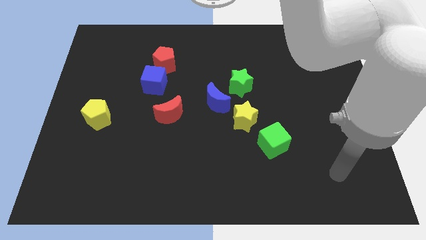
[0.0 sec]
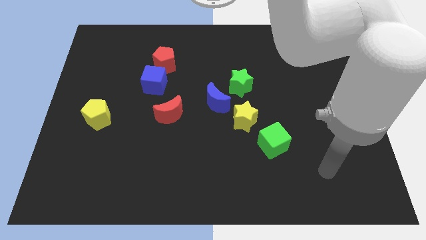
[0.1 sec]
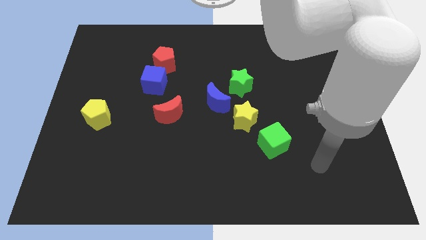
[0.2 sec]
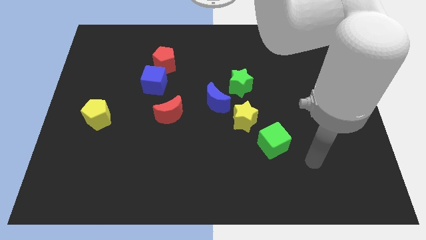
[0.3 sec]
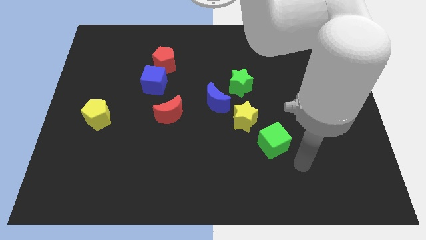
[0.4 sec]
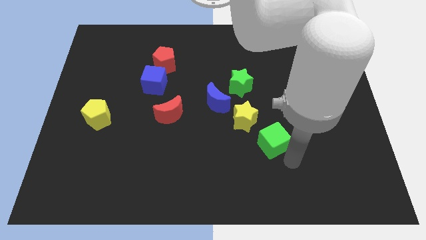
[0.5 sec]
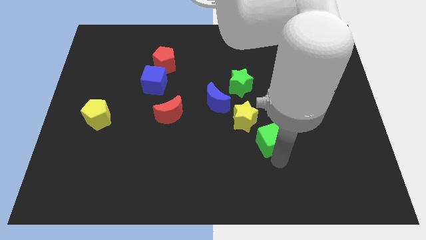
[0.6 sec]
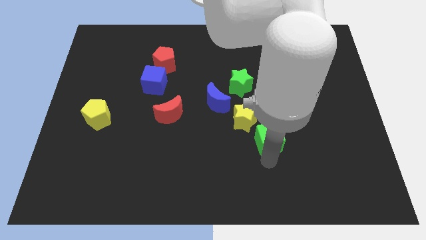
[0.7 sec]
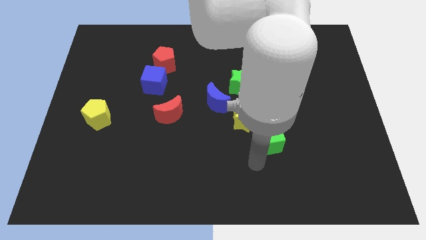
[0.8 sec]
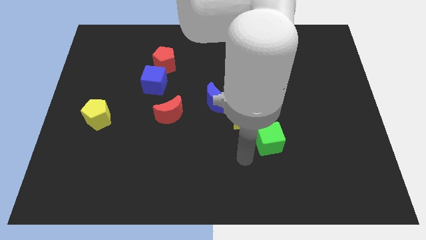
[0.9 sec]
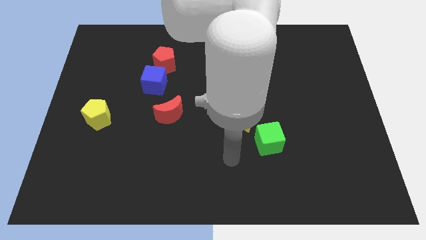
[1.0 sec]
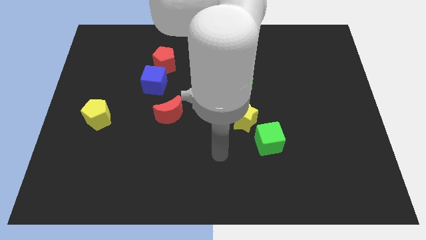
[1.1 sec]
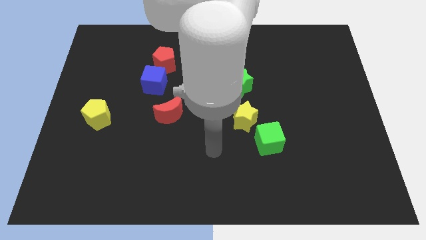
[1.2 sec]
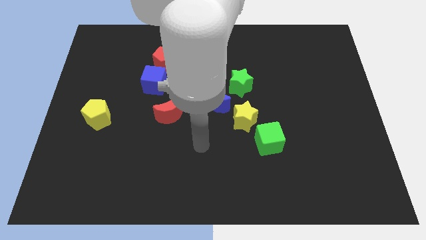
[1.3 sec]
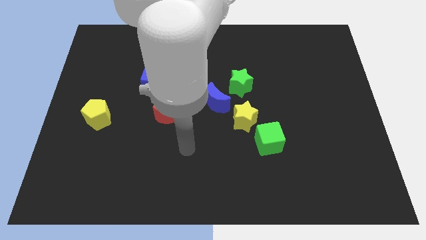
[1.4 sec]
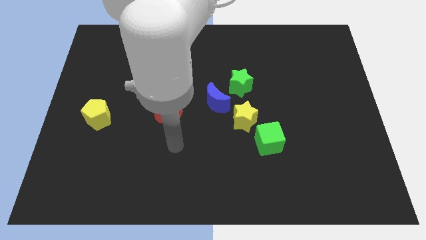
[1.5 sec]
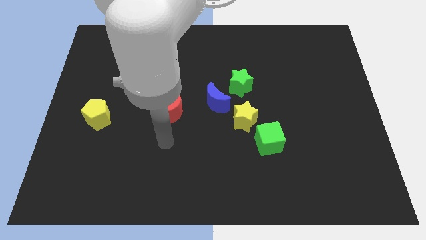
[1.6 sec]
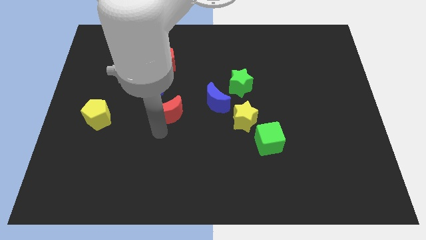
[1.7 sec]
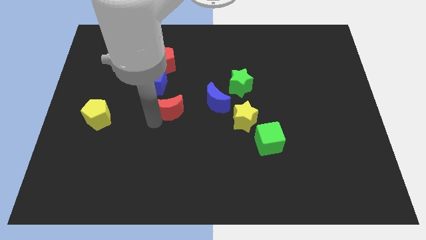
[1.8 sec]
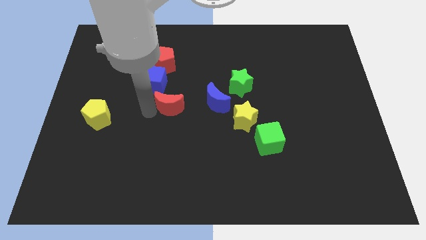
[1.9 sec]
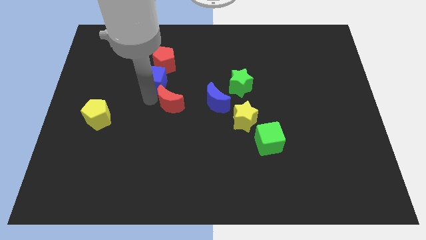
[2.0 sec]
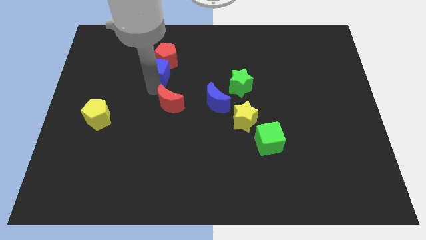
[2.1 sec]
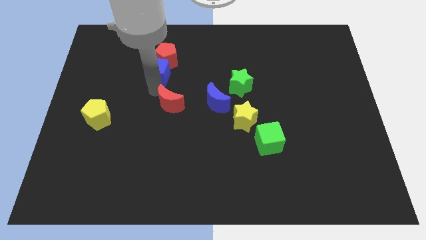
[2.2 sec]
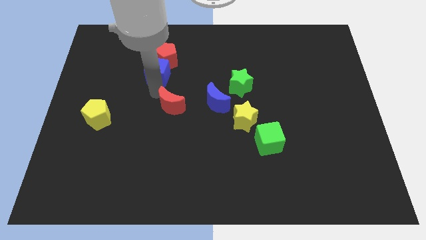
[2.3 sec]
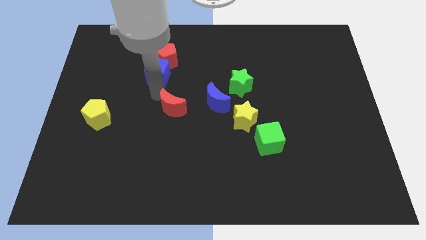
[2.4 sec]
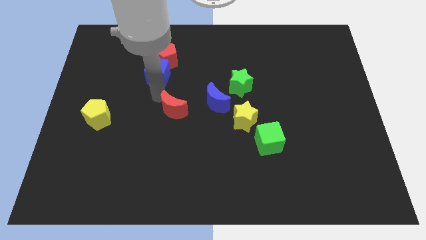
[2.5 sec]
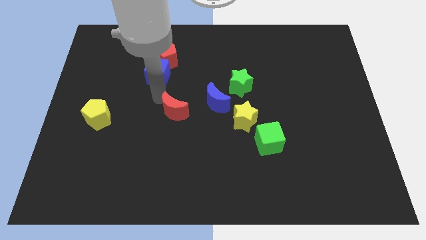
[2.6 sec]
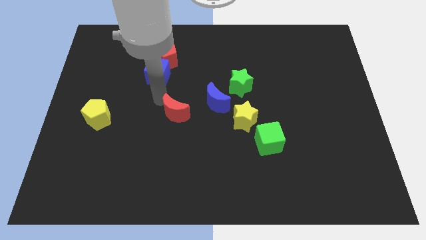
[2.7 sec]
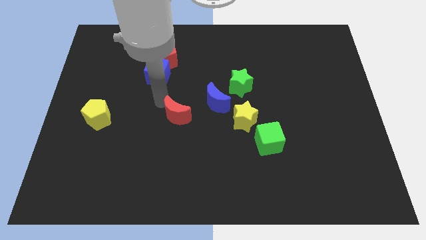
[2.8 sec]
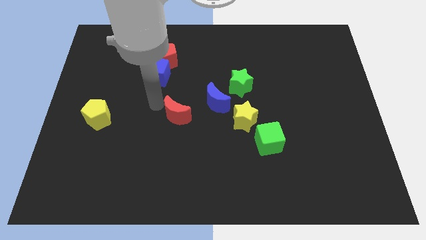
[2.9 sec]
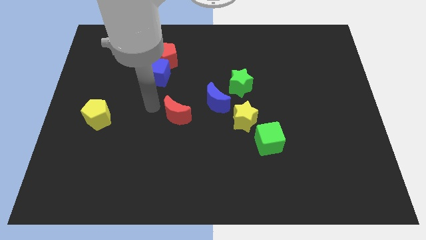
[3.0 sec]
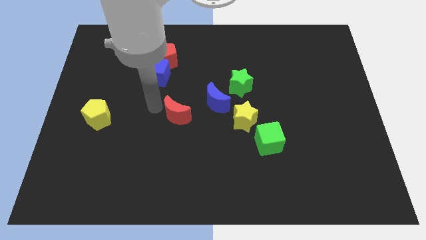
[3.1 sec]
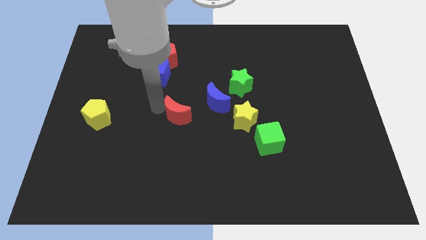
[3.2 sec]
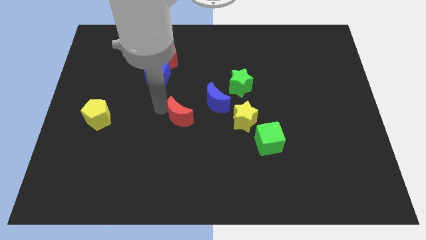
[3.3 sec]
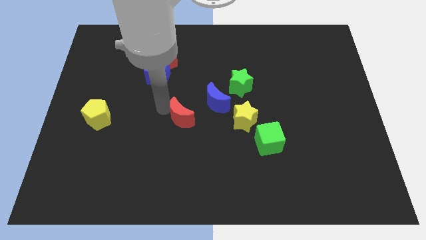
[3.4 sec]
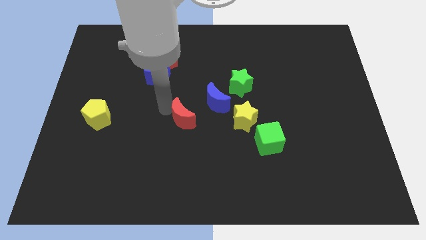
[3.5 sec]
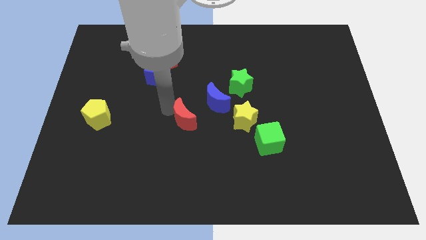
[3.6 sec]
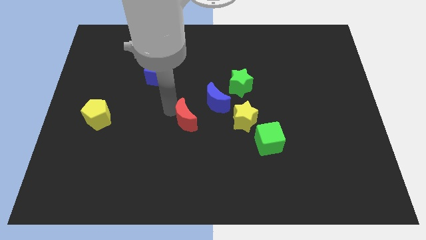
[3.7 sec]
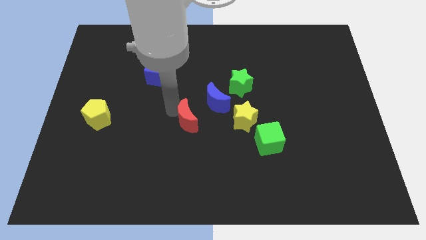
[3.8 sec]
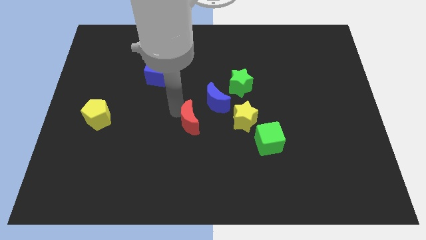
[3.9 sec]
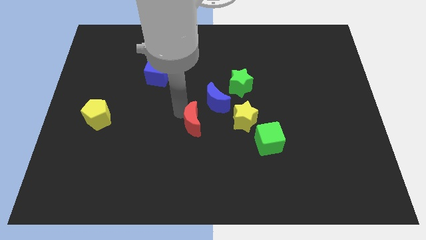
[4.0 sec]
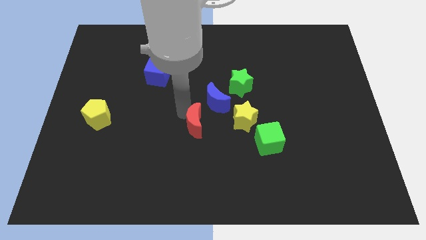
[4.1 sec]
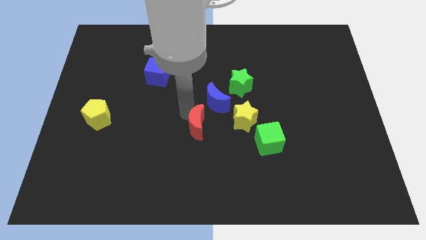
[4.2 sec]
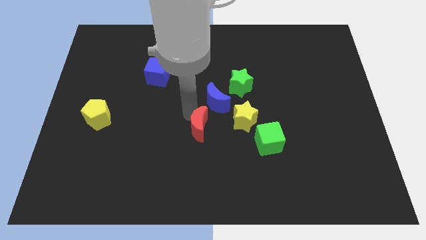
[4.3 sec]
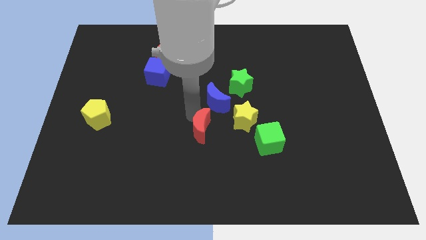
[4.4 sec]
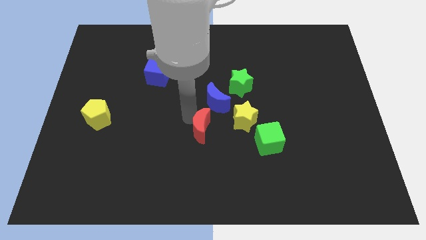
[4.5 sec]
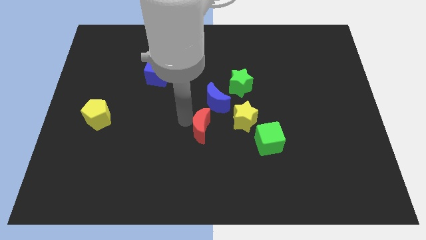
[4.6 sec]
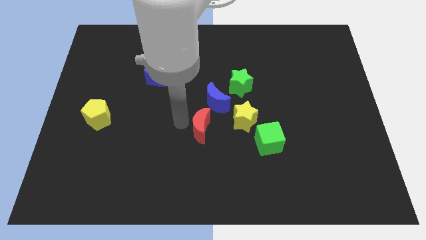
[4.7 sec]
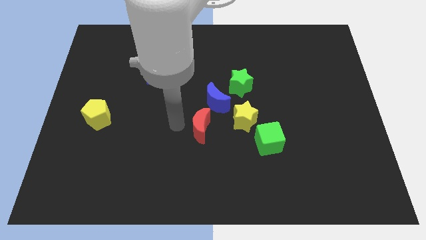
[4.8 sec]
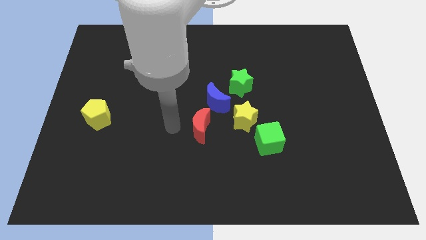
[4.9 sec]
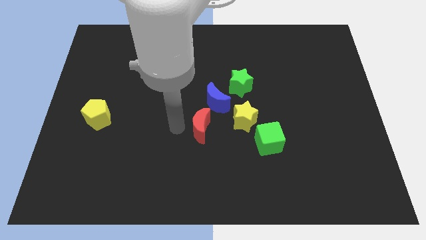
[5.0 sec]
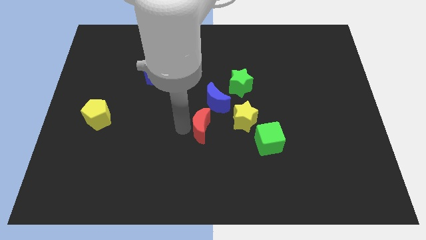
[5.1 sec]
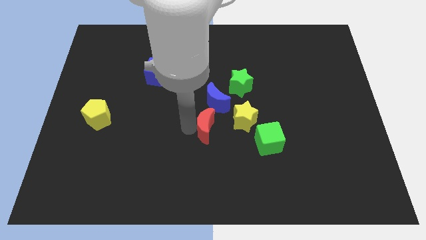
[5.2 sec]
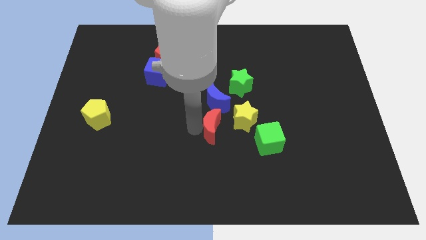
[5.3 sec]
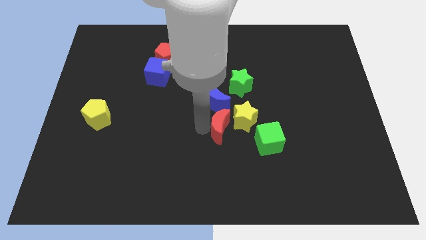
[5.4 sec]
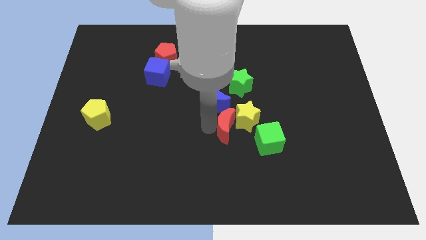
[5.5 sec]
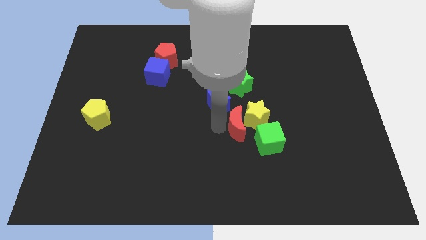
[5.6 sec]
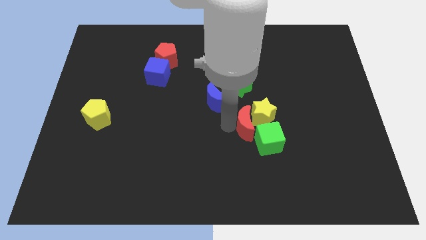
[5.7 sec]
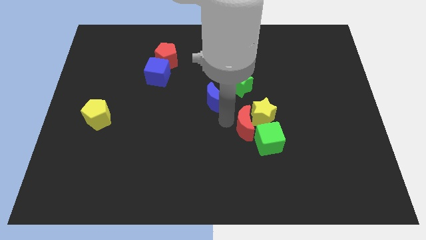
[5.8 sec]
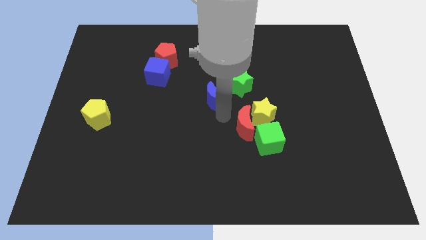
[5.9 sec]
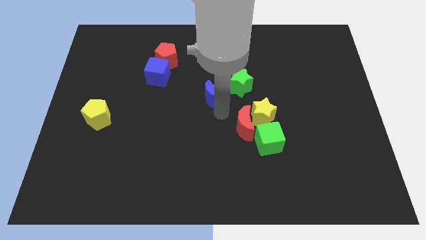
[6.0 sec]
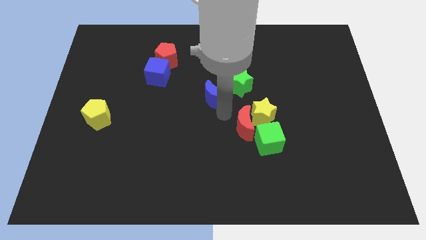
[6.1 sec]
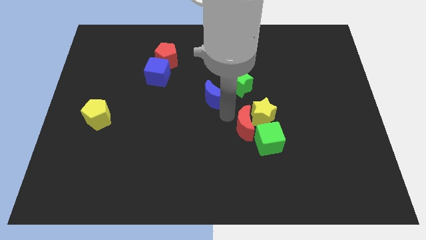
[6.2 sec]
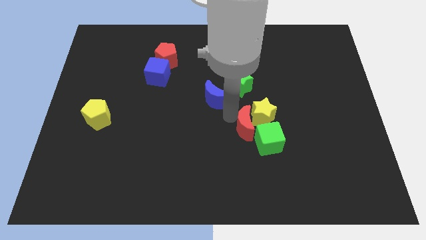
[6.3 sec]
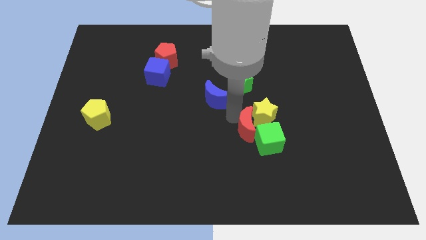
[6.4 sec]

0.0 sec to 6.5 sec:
put the red moon next to the green cube
